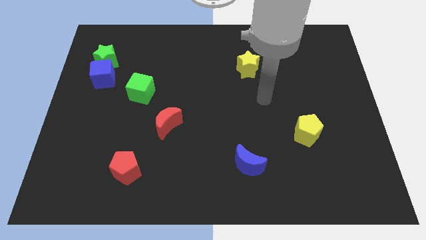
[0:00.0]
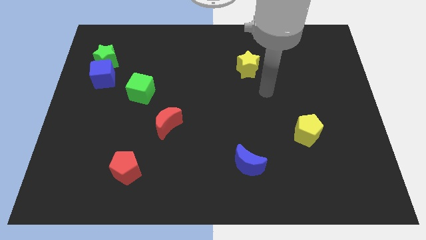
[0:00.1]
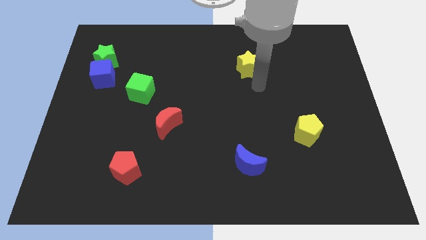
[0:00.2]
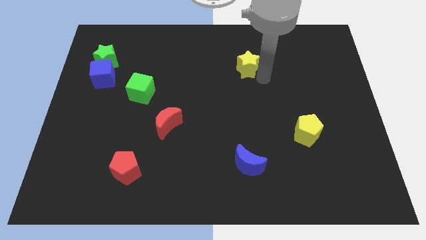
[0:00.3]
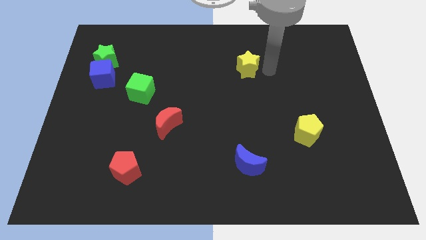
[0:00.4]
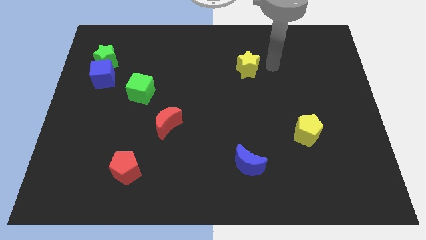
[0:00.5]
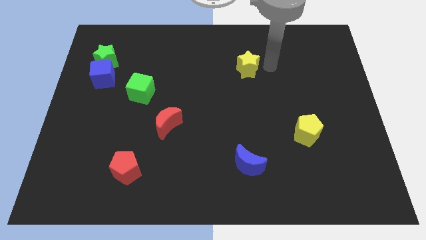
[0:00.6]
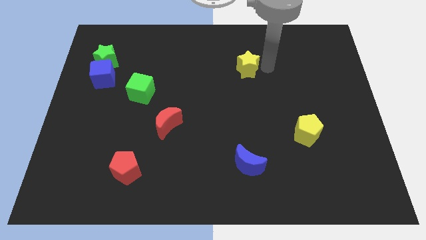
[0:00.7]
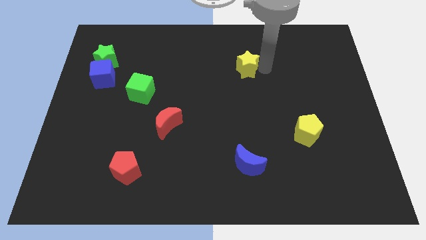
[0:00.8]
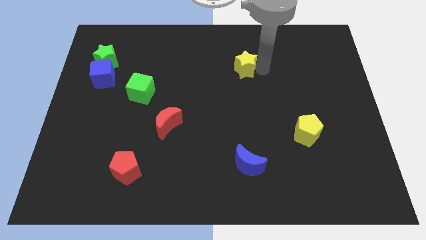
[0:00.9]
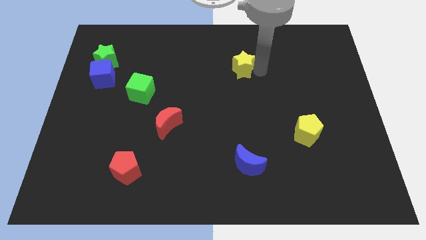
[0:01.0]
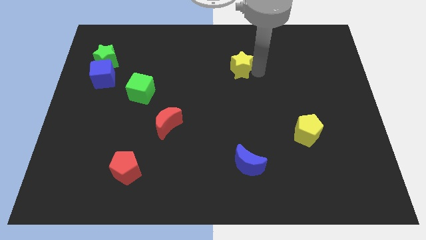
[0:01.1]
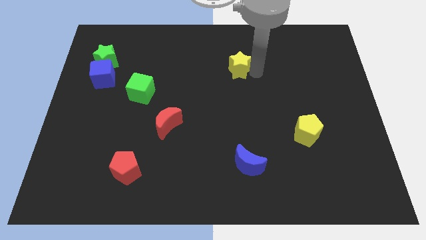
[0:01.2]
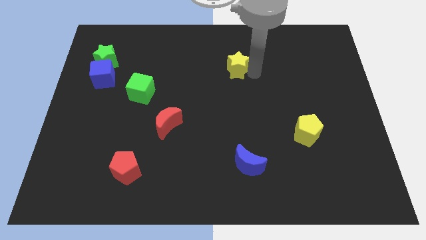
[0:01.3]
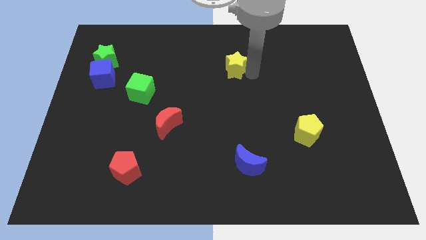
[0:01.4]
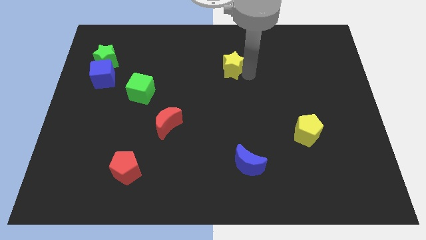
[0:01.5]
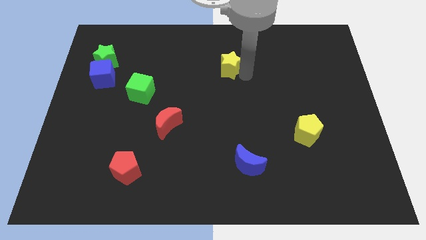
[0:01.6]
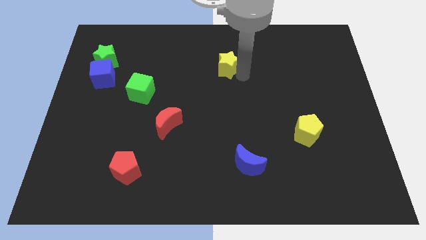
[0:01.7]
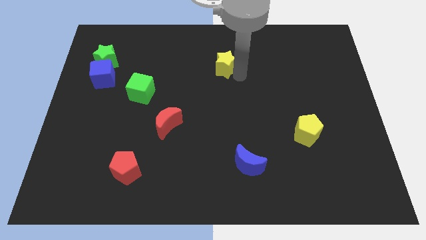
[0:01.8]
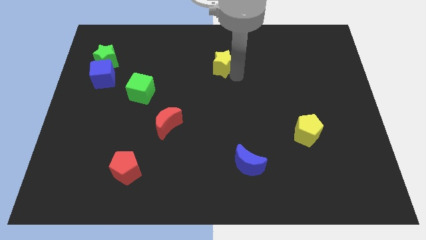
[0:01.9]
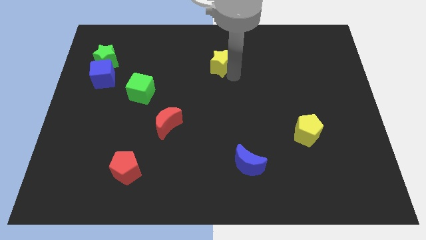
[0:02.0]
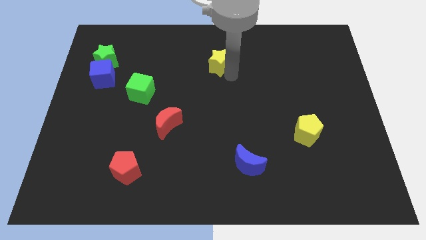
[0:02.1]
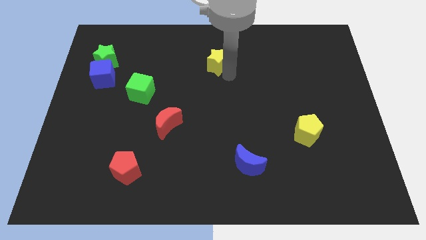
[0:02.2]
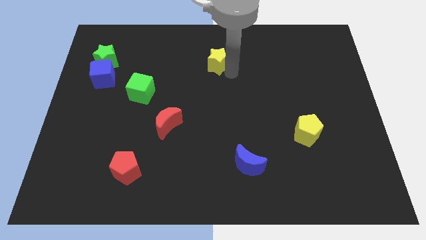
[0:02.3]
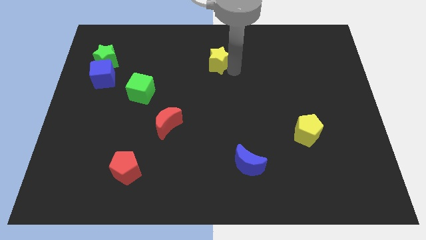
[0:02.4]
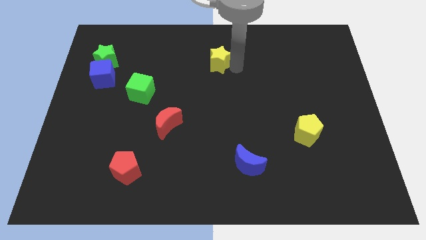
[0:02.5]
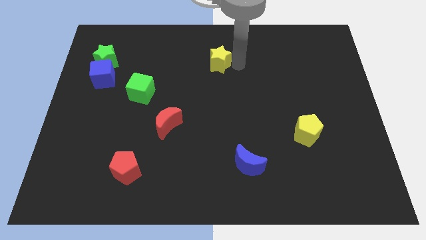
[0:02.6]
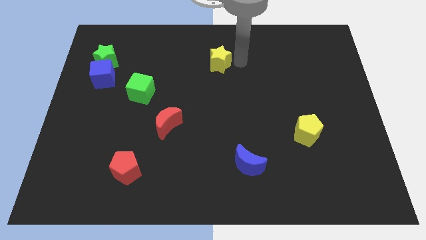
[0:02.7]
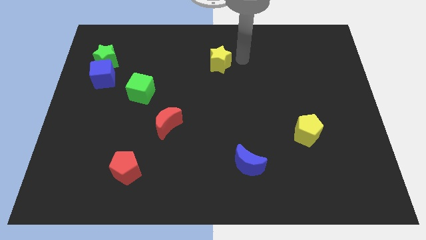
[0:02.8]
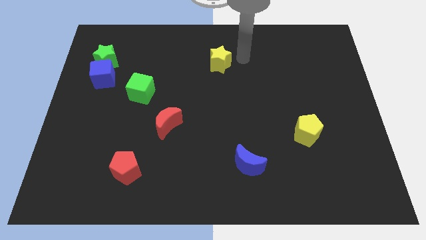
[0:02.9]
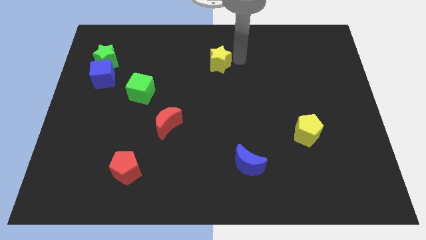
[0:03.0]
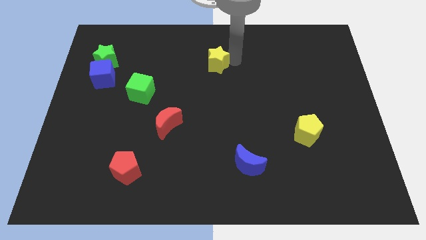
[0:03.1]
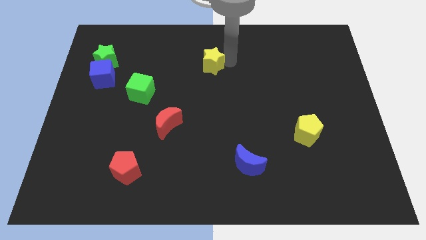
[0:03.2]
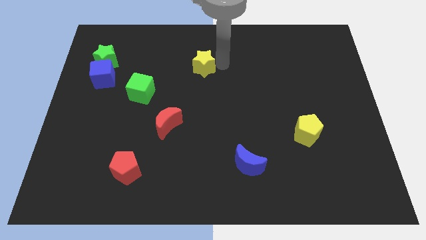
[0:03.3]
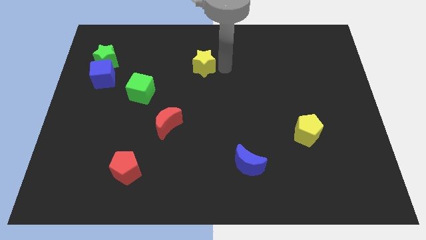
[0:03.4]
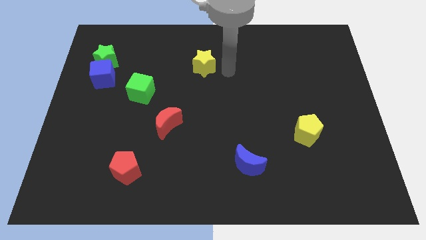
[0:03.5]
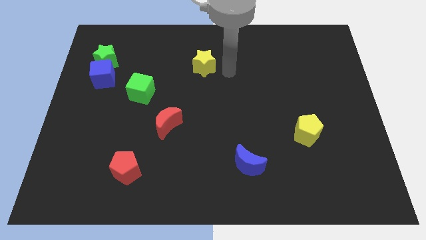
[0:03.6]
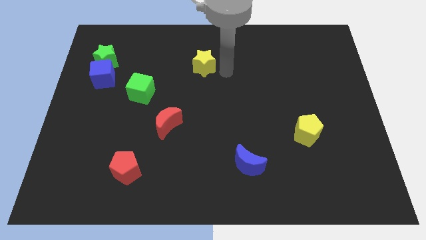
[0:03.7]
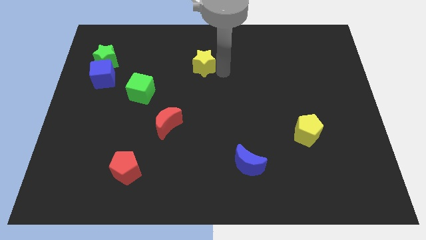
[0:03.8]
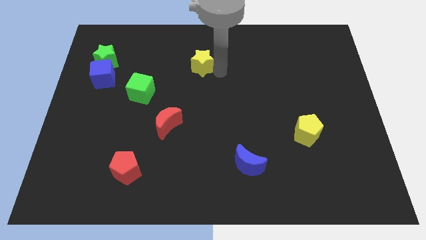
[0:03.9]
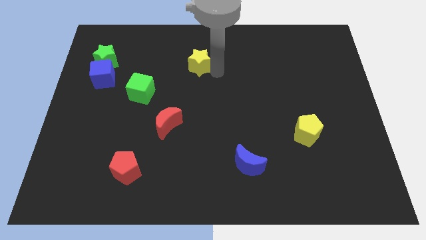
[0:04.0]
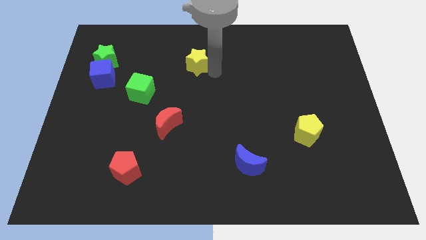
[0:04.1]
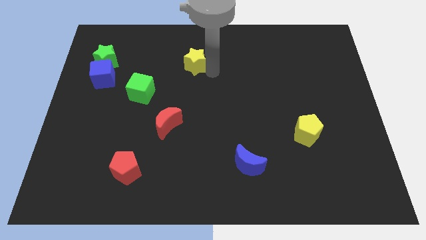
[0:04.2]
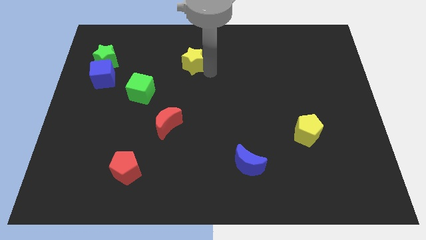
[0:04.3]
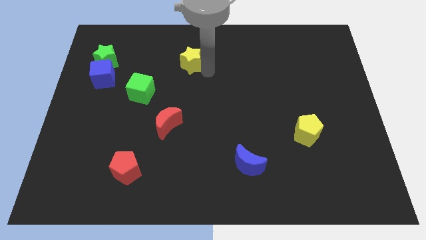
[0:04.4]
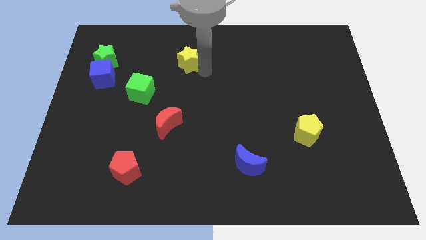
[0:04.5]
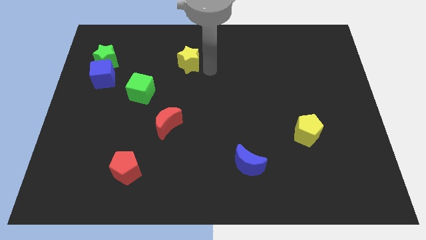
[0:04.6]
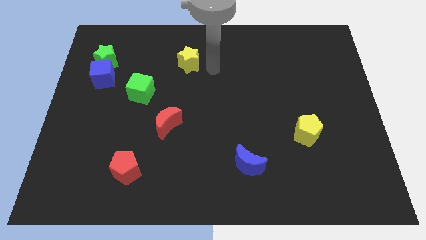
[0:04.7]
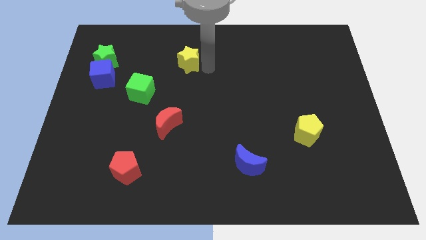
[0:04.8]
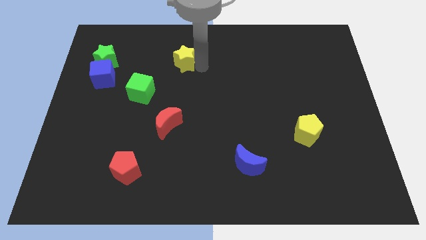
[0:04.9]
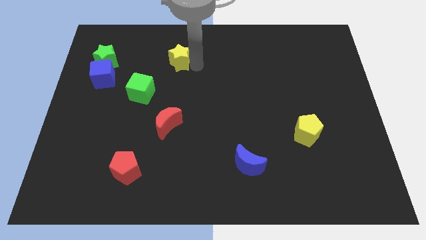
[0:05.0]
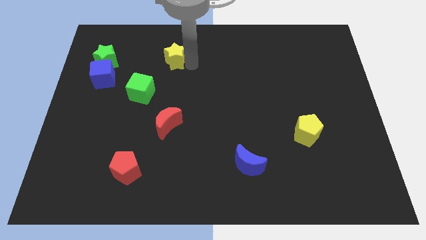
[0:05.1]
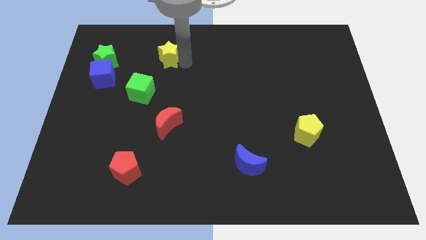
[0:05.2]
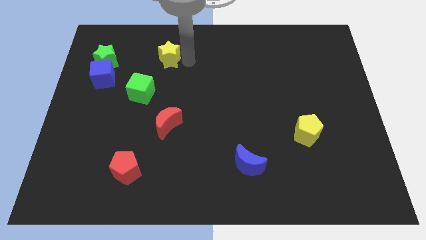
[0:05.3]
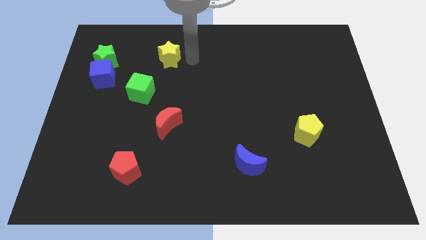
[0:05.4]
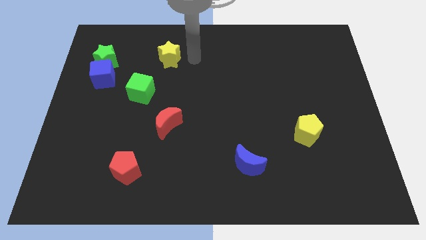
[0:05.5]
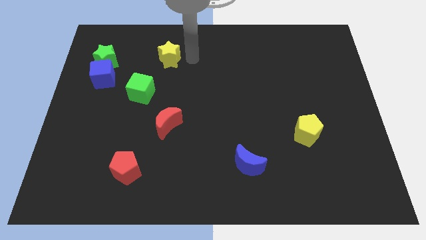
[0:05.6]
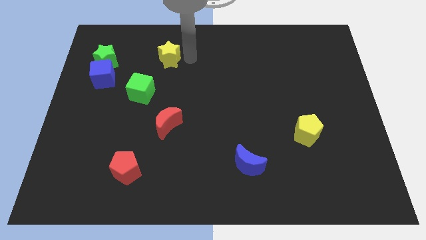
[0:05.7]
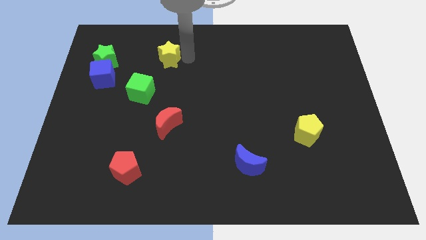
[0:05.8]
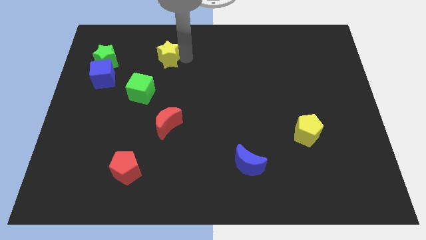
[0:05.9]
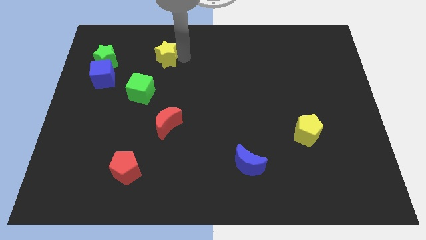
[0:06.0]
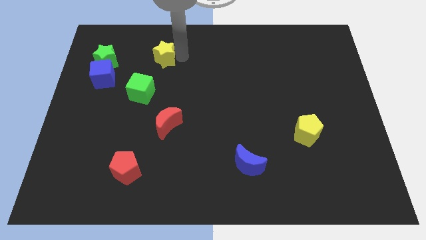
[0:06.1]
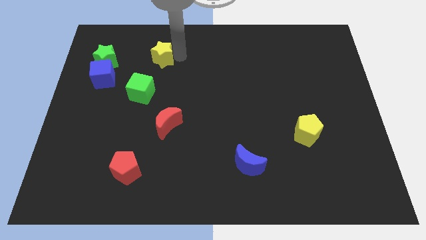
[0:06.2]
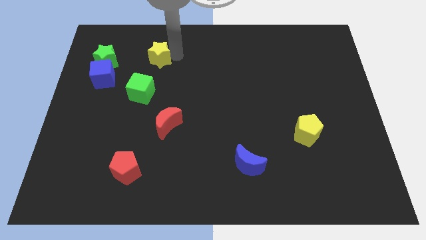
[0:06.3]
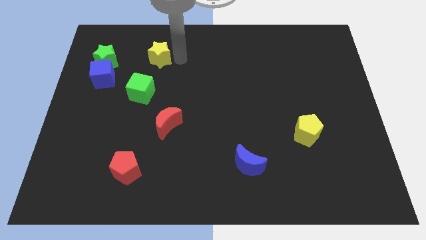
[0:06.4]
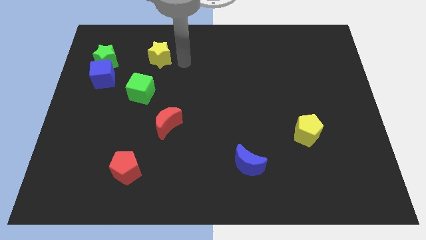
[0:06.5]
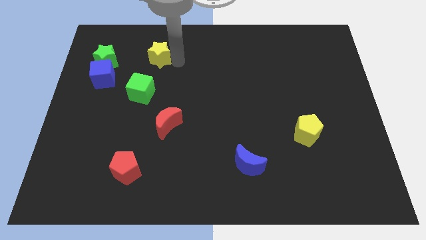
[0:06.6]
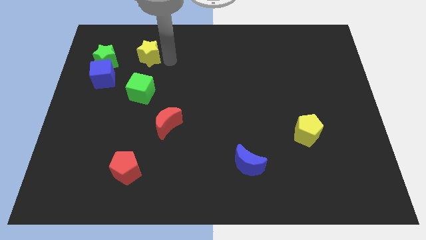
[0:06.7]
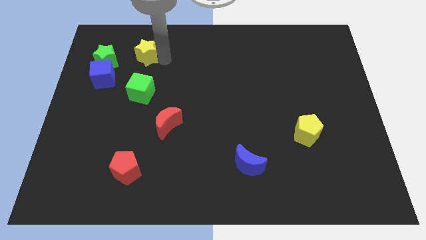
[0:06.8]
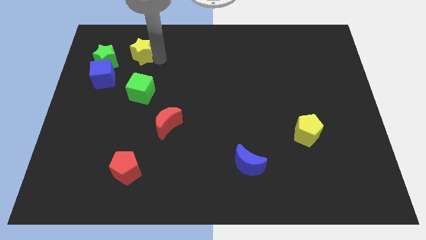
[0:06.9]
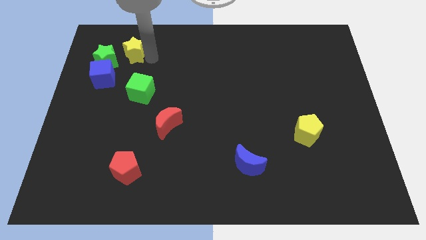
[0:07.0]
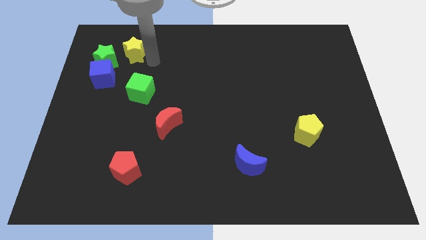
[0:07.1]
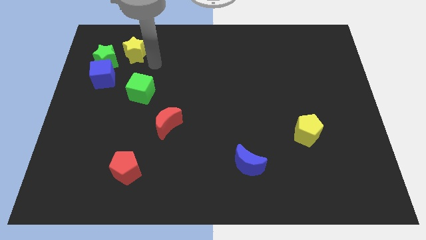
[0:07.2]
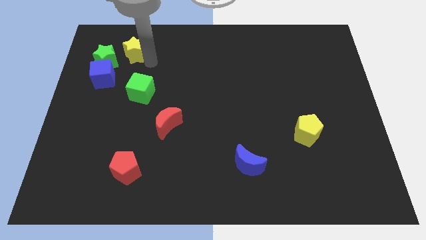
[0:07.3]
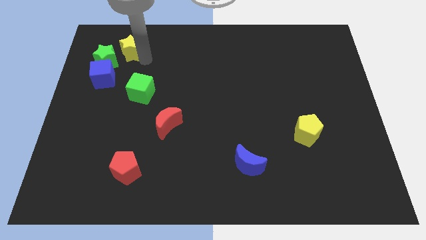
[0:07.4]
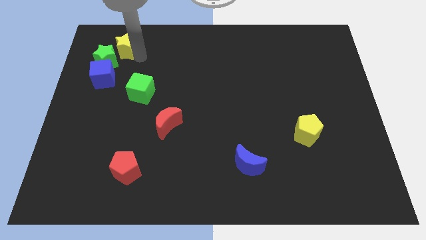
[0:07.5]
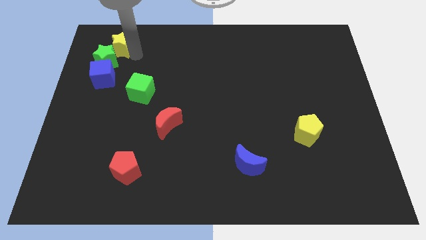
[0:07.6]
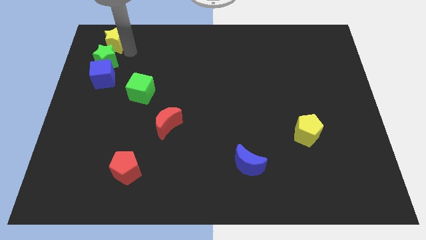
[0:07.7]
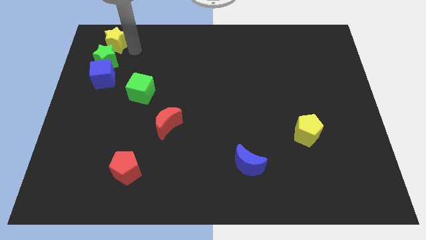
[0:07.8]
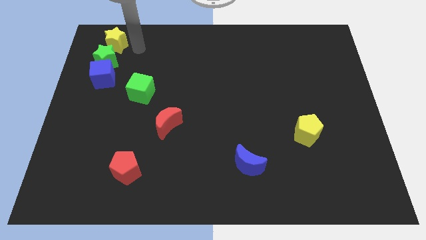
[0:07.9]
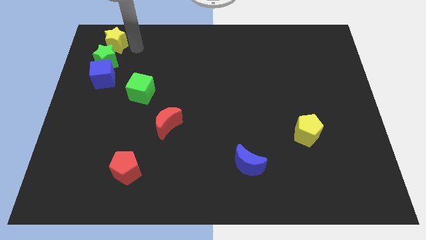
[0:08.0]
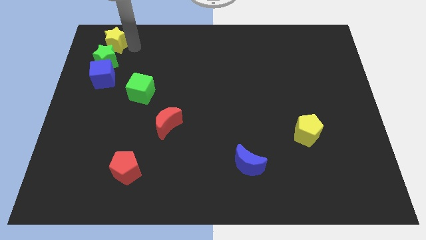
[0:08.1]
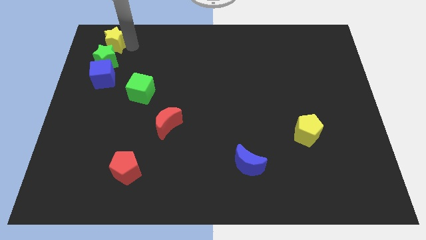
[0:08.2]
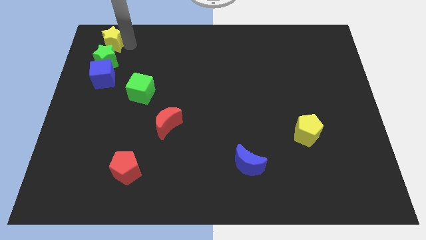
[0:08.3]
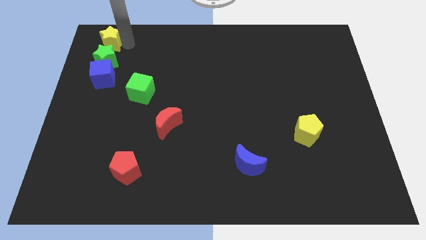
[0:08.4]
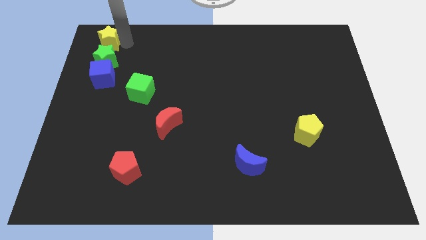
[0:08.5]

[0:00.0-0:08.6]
move the yellow star to the upper left corner
